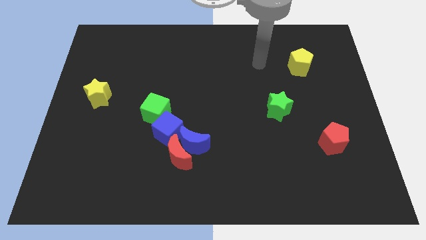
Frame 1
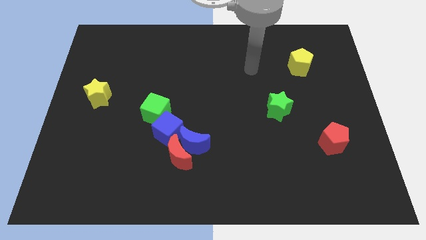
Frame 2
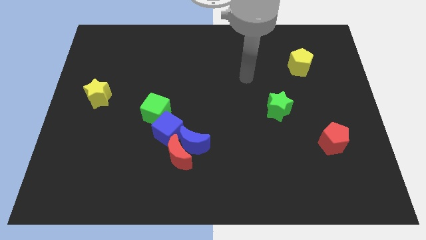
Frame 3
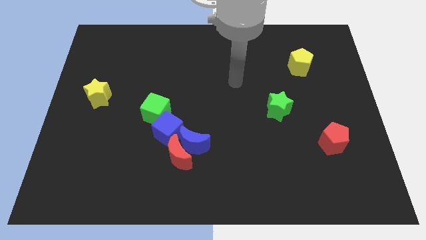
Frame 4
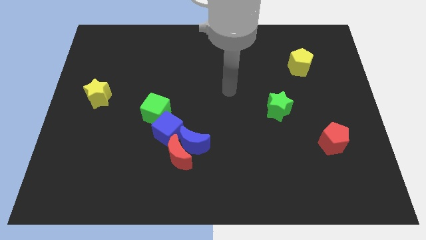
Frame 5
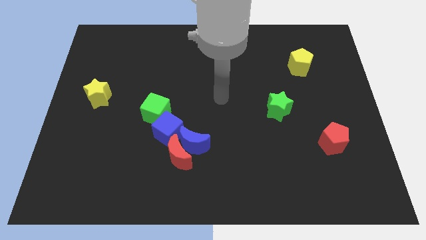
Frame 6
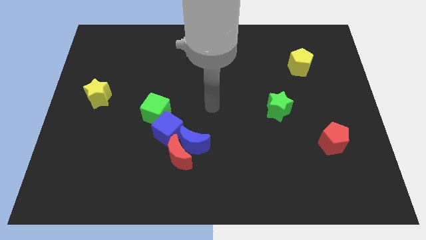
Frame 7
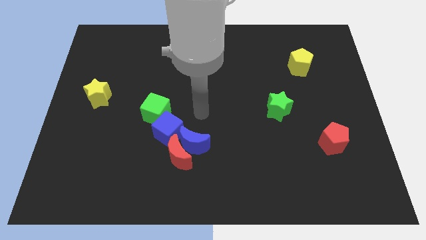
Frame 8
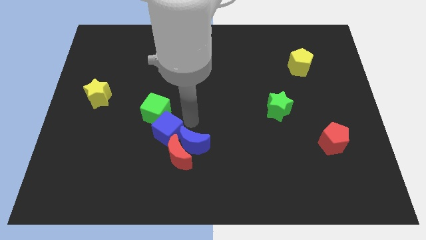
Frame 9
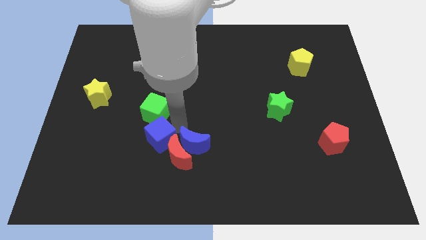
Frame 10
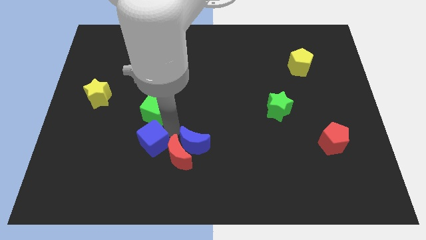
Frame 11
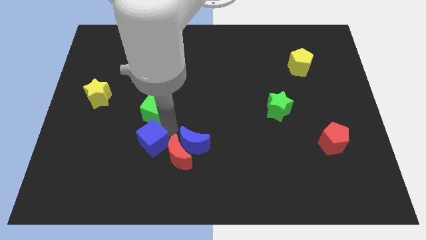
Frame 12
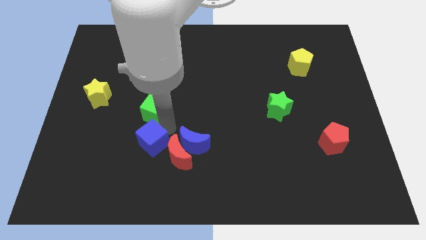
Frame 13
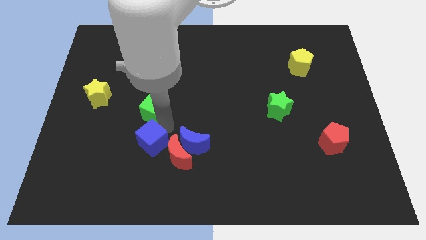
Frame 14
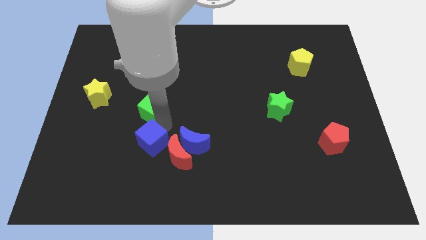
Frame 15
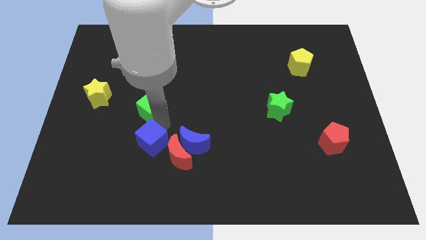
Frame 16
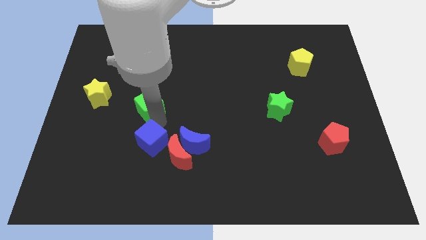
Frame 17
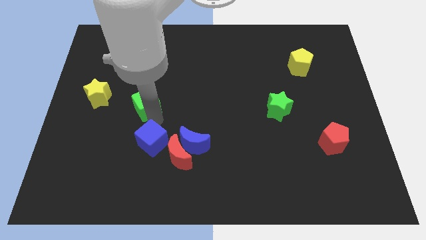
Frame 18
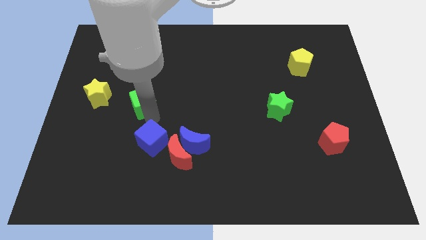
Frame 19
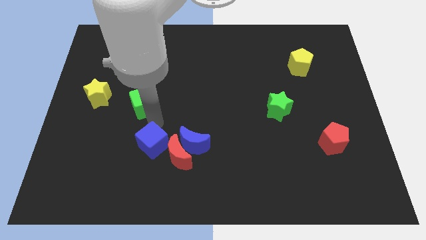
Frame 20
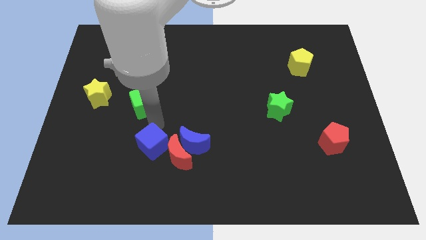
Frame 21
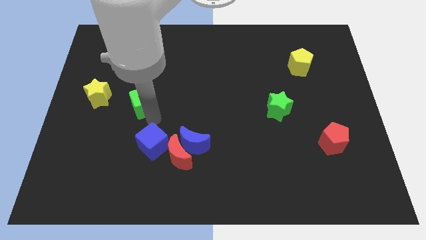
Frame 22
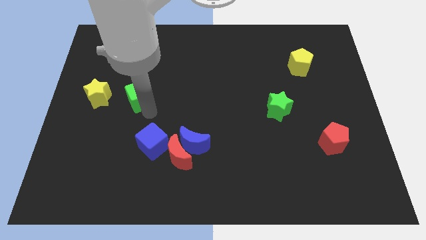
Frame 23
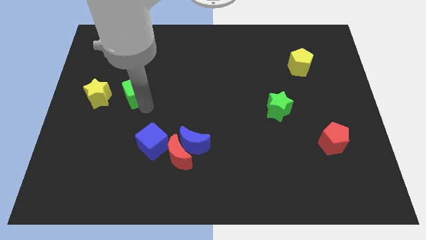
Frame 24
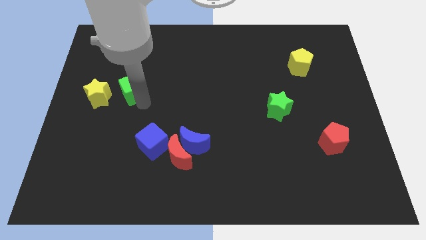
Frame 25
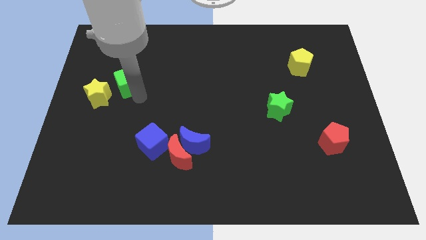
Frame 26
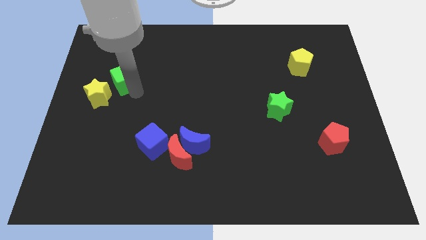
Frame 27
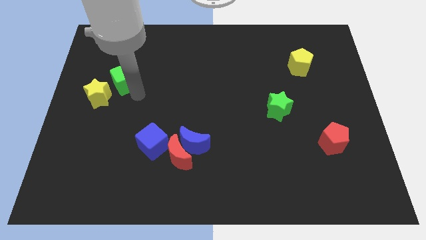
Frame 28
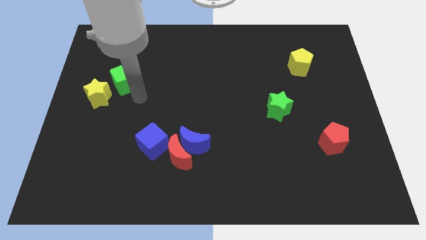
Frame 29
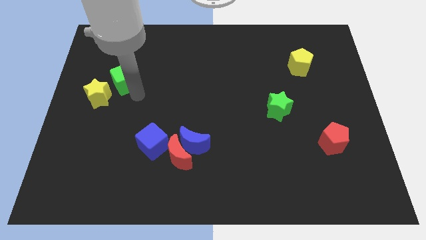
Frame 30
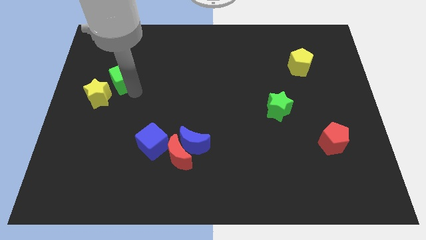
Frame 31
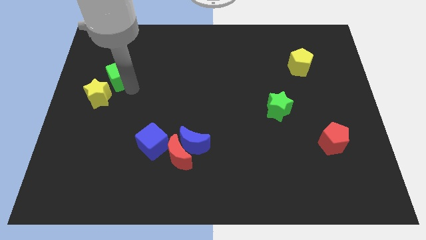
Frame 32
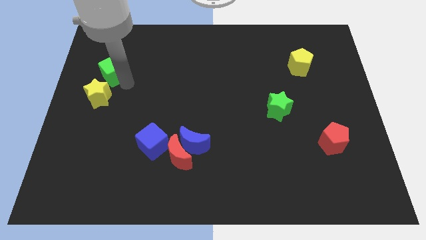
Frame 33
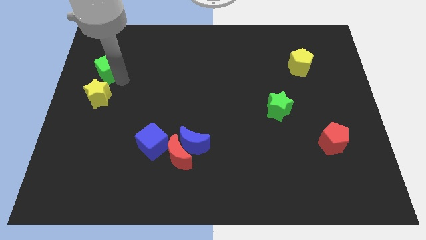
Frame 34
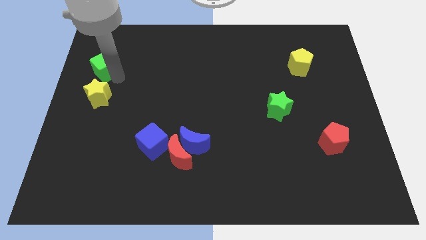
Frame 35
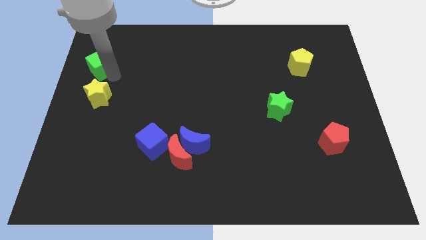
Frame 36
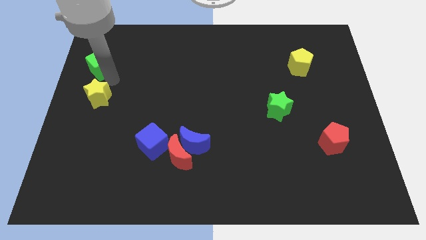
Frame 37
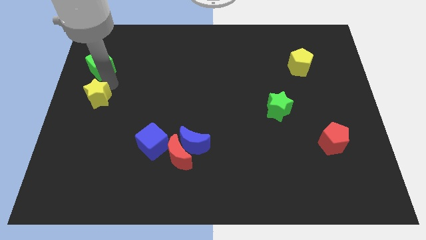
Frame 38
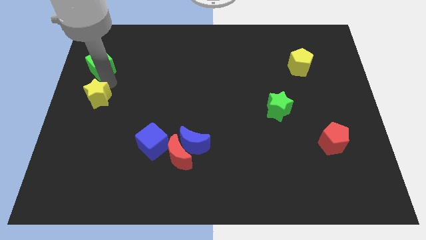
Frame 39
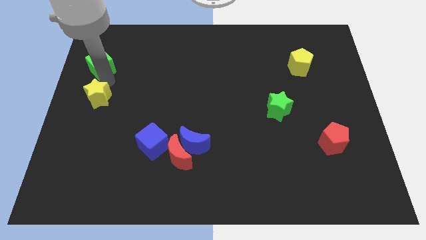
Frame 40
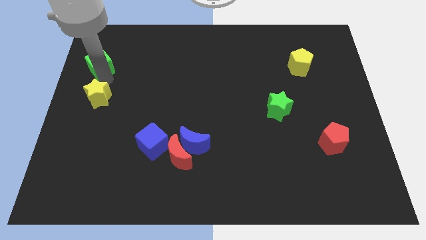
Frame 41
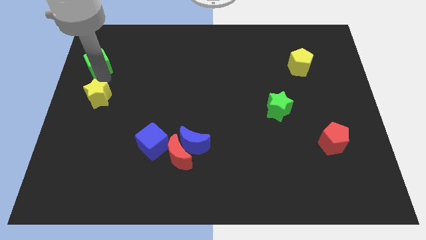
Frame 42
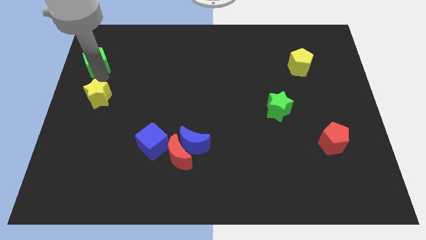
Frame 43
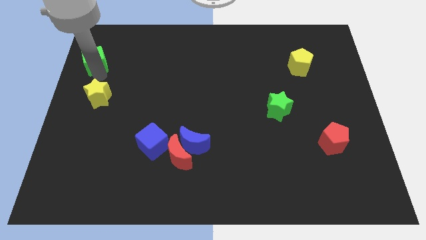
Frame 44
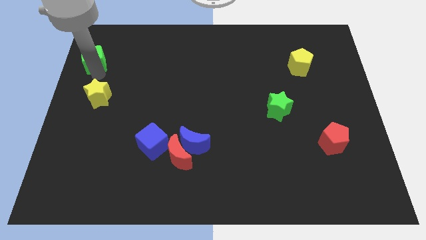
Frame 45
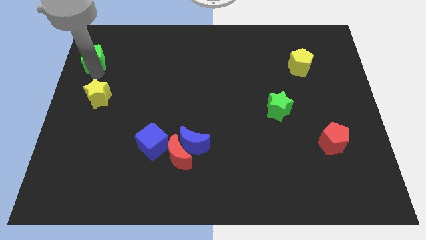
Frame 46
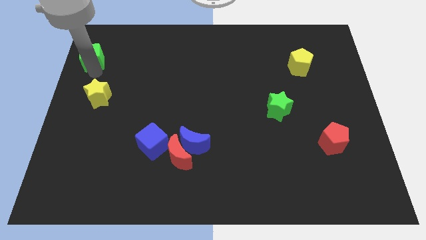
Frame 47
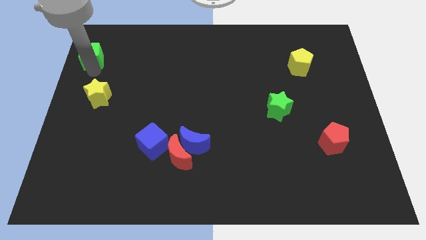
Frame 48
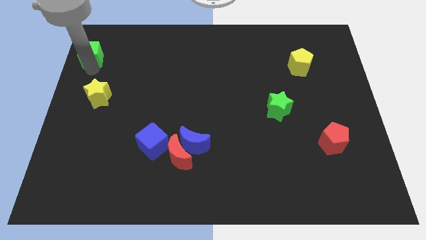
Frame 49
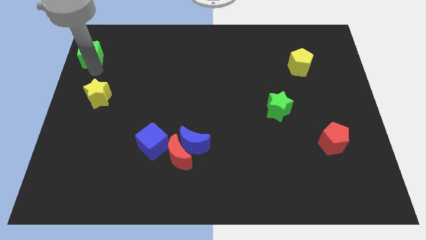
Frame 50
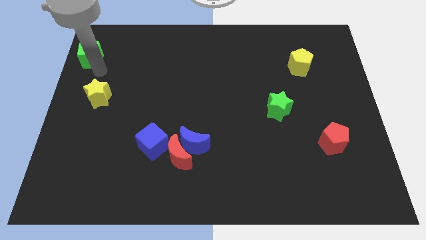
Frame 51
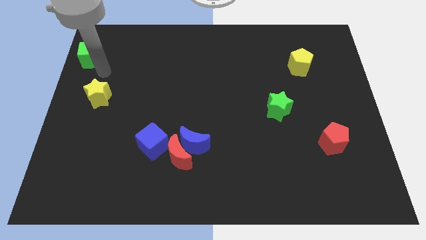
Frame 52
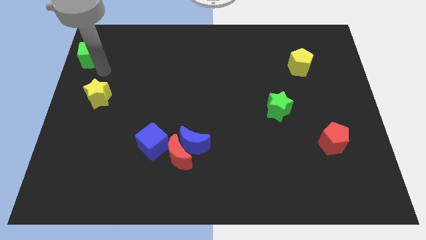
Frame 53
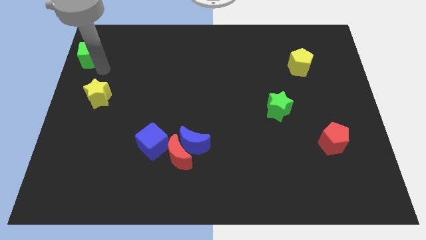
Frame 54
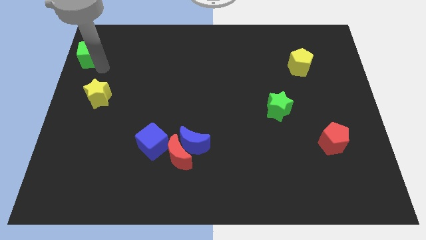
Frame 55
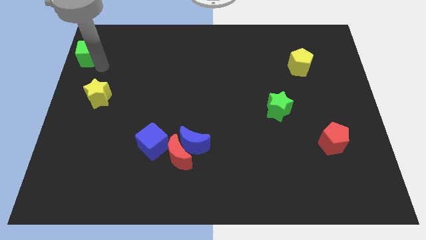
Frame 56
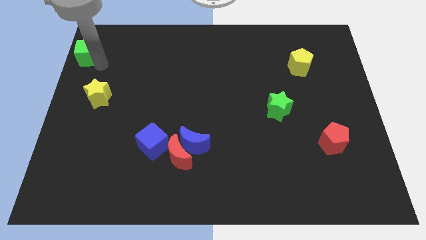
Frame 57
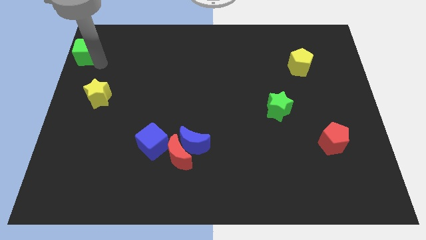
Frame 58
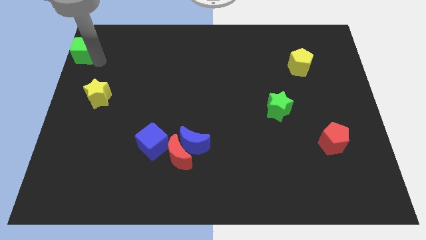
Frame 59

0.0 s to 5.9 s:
put the green cube to the top left corner

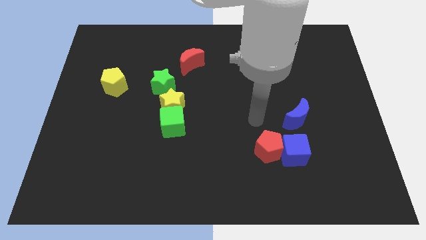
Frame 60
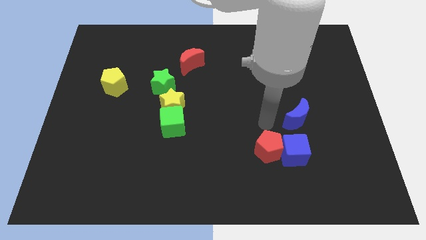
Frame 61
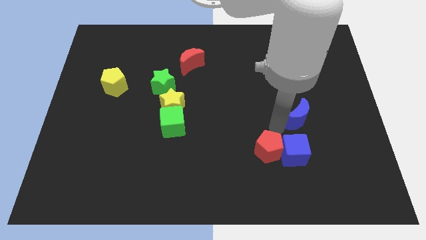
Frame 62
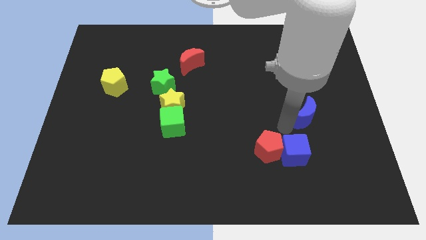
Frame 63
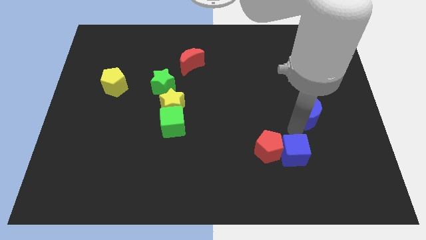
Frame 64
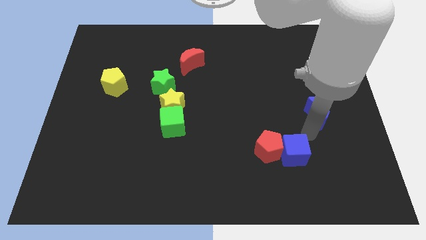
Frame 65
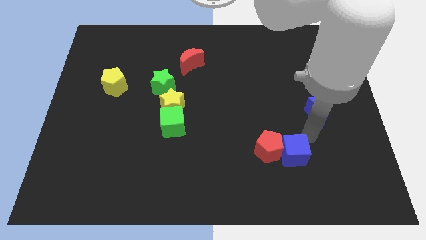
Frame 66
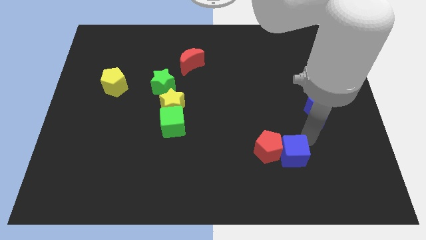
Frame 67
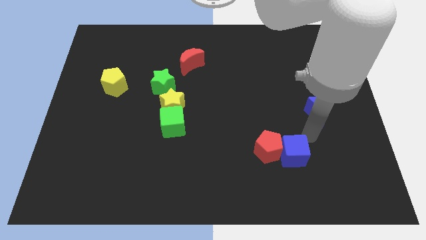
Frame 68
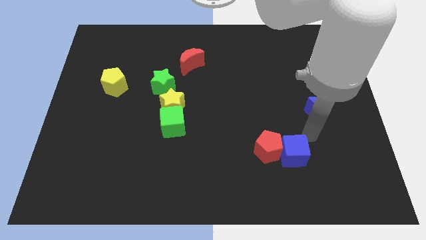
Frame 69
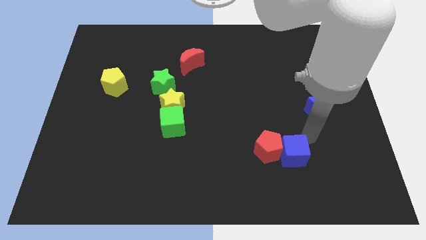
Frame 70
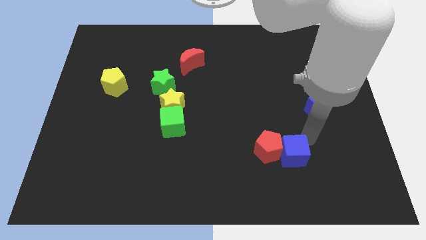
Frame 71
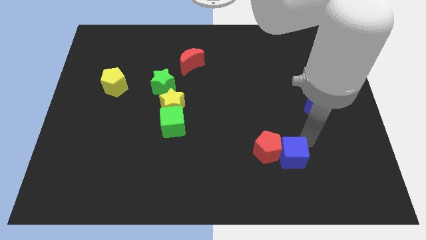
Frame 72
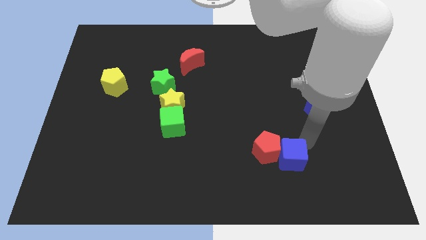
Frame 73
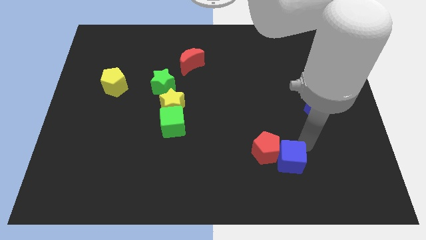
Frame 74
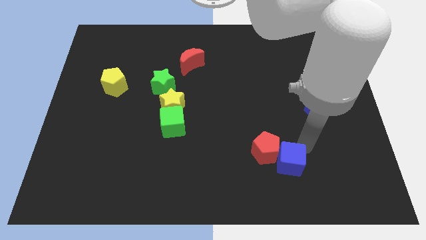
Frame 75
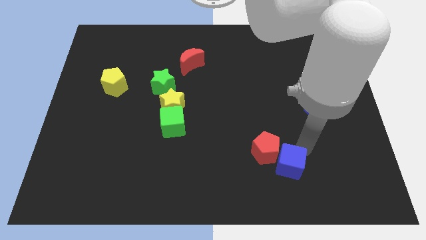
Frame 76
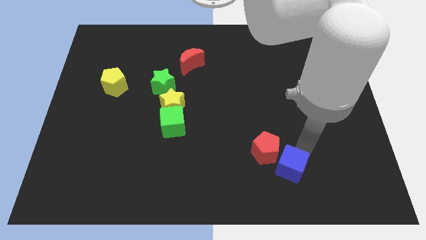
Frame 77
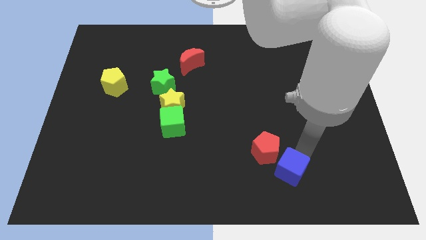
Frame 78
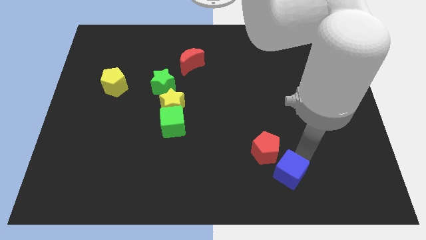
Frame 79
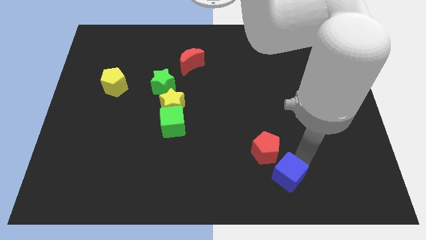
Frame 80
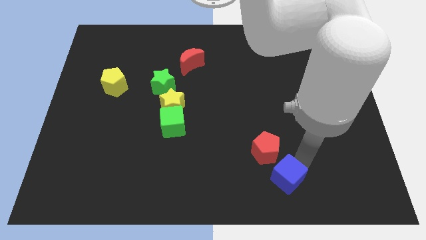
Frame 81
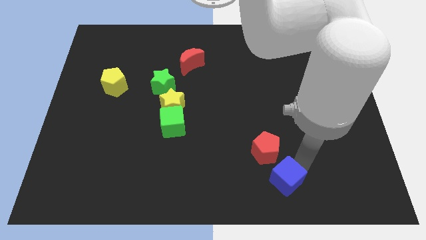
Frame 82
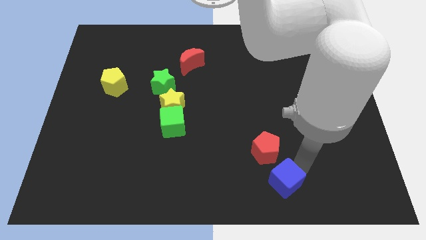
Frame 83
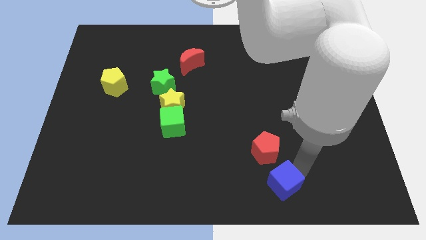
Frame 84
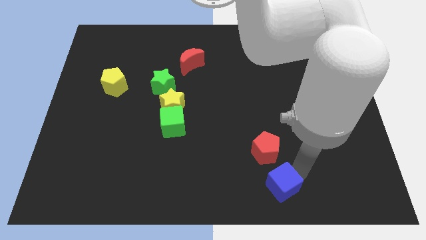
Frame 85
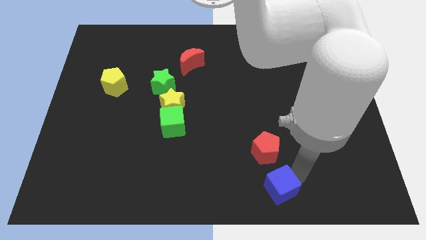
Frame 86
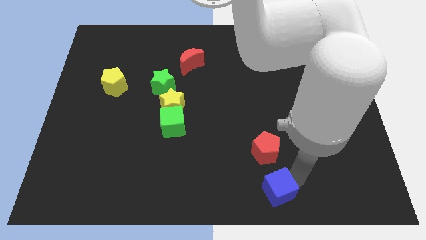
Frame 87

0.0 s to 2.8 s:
slide the blue cube to the bottom
